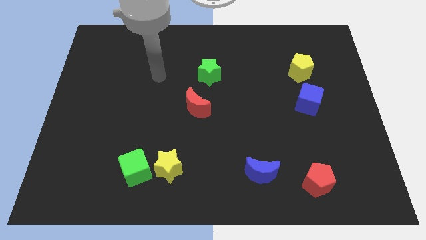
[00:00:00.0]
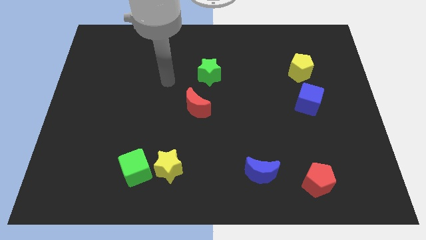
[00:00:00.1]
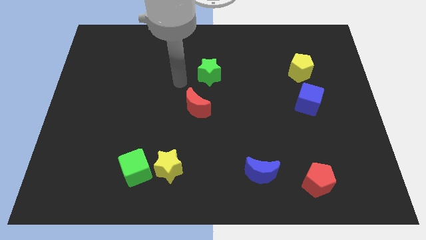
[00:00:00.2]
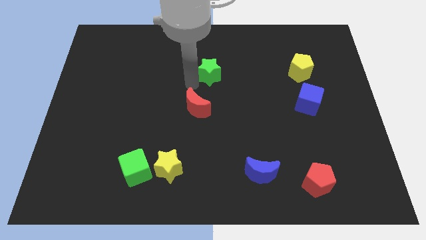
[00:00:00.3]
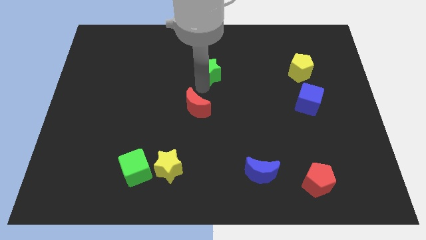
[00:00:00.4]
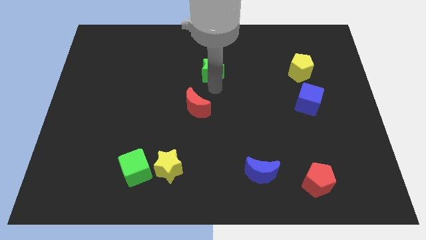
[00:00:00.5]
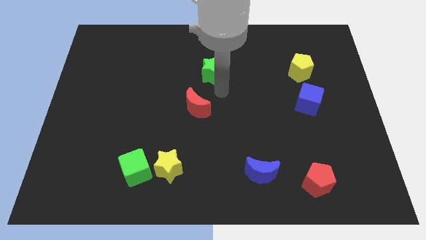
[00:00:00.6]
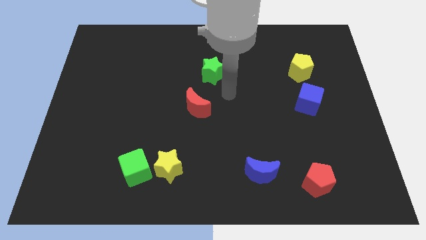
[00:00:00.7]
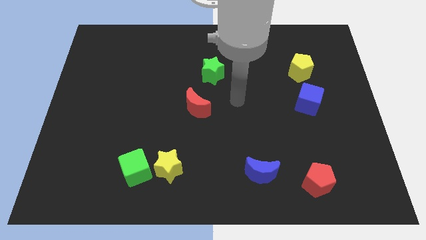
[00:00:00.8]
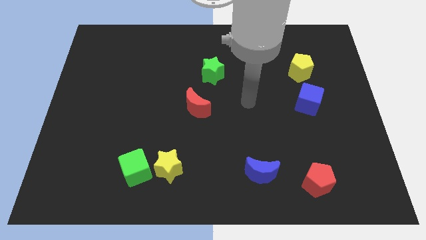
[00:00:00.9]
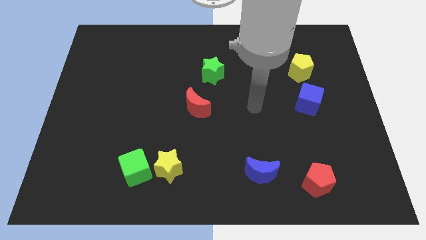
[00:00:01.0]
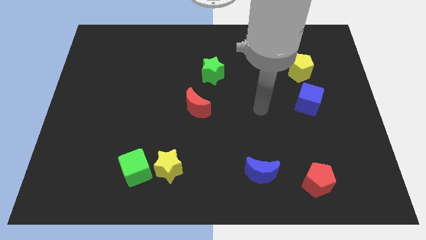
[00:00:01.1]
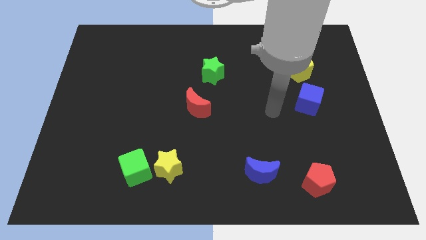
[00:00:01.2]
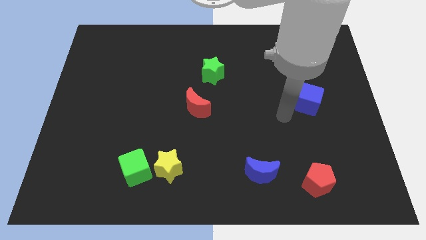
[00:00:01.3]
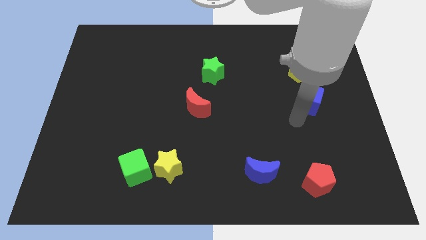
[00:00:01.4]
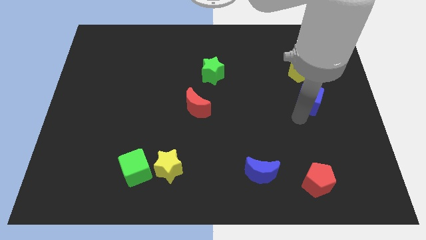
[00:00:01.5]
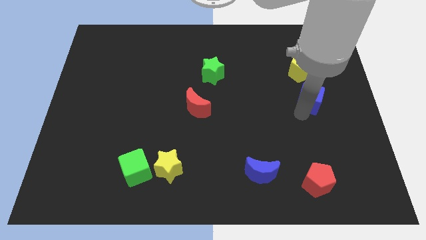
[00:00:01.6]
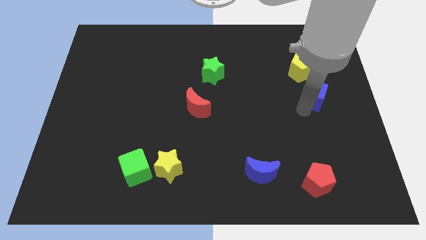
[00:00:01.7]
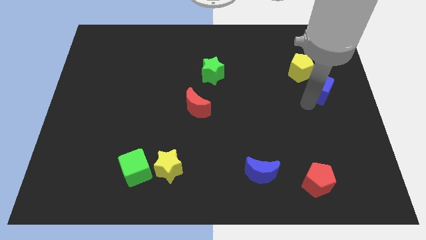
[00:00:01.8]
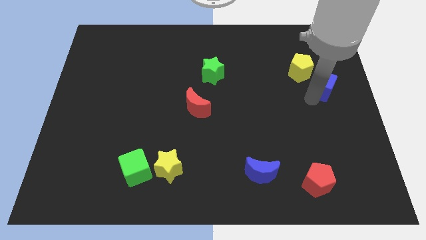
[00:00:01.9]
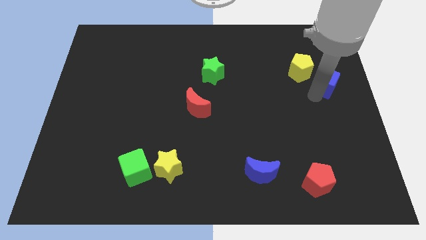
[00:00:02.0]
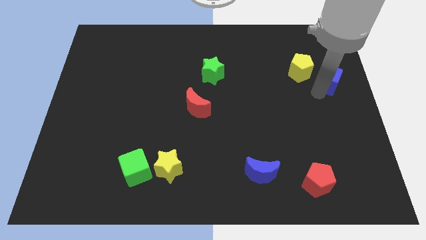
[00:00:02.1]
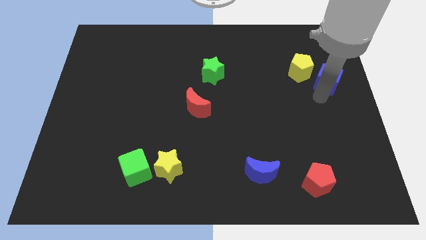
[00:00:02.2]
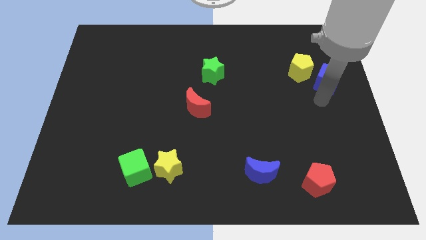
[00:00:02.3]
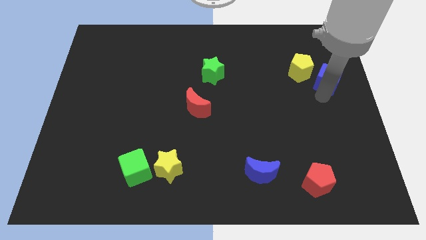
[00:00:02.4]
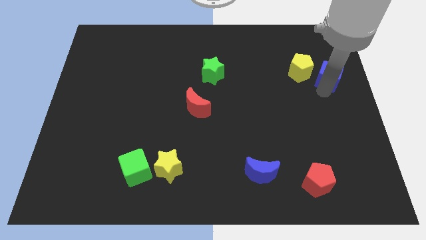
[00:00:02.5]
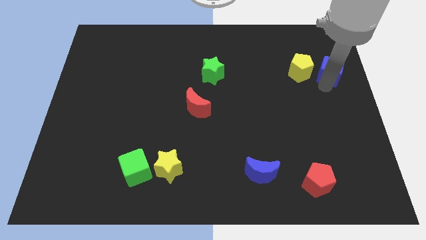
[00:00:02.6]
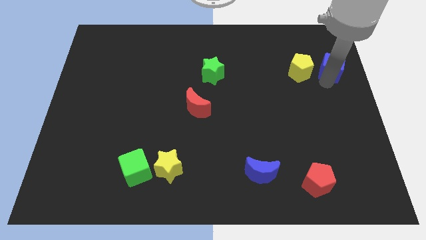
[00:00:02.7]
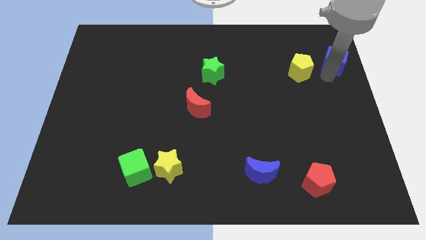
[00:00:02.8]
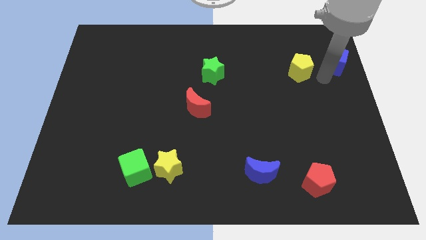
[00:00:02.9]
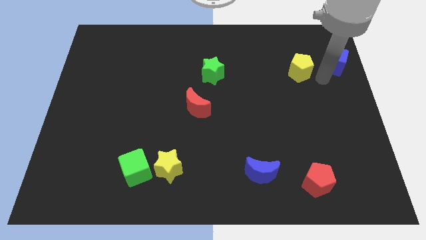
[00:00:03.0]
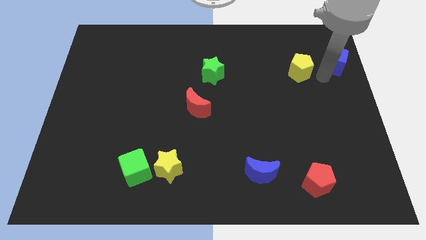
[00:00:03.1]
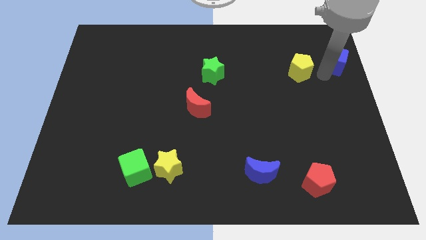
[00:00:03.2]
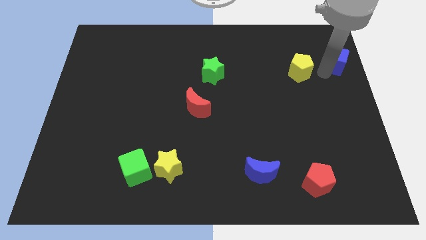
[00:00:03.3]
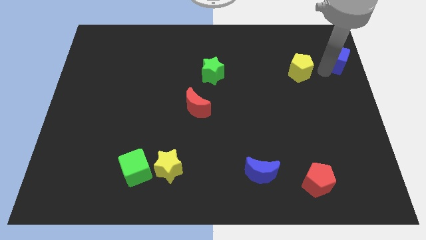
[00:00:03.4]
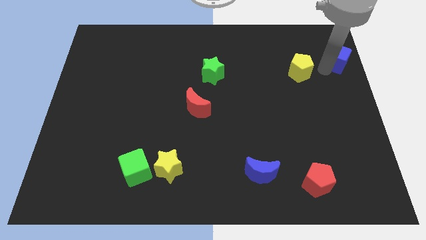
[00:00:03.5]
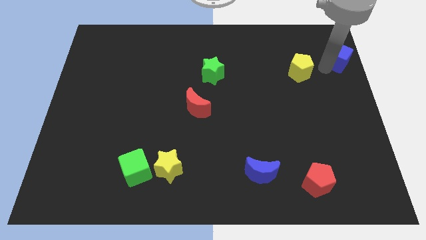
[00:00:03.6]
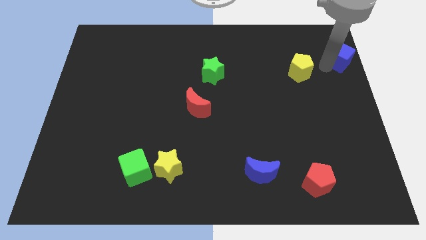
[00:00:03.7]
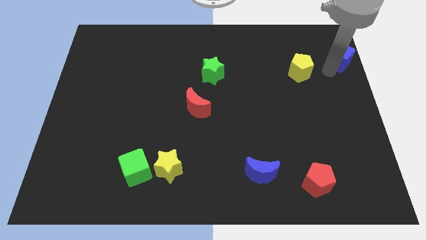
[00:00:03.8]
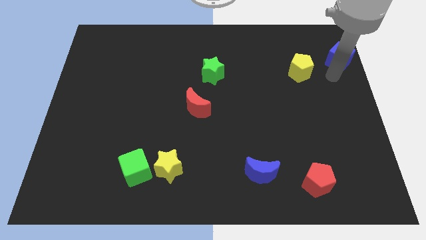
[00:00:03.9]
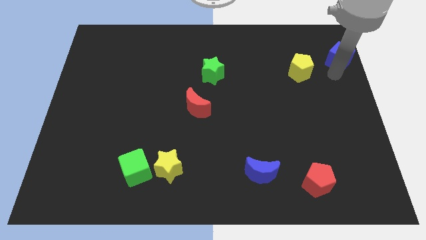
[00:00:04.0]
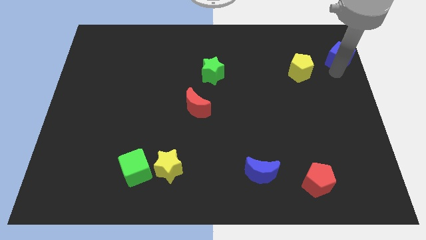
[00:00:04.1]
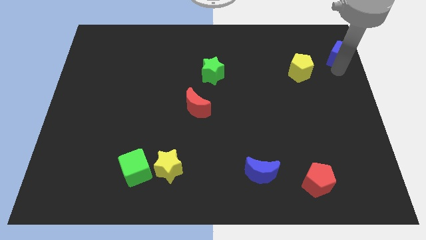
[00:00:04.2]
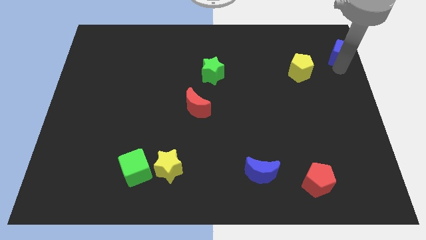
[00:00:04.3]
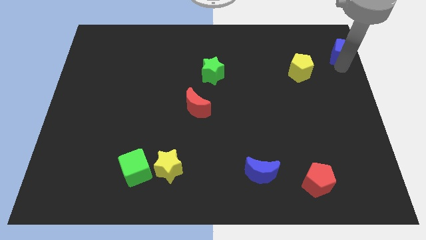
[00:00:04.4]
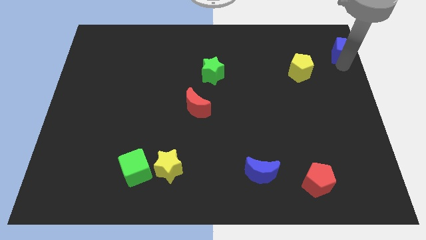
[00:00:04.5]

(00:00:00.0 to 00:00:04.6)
slide the blue cube to the top right corner

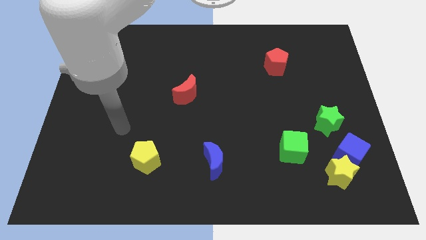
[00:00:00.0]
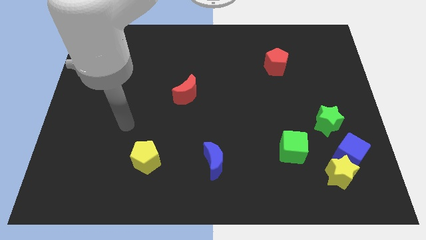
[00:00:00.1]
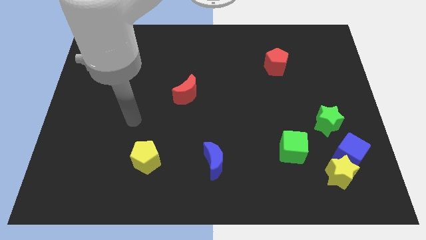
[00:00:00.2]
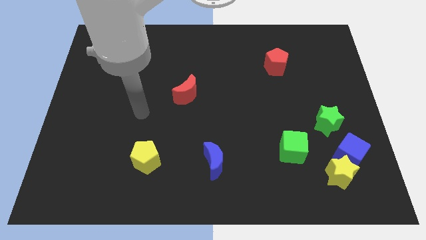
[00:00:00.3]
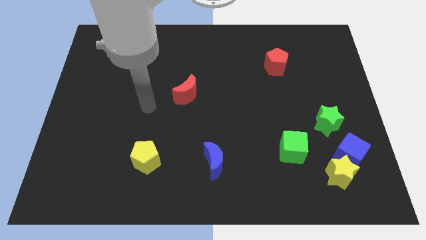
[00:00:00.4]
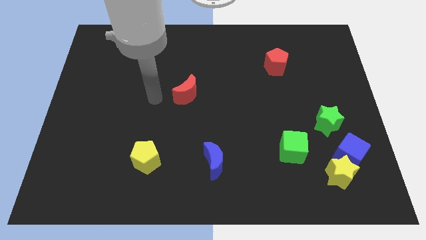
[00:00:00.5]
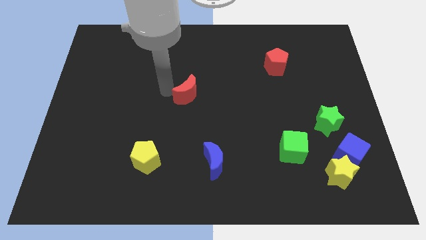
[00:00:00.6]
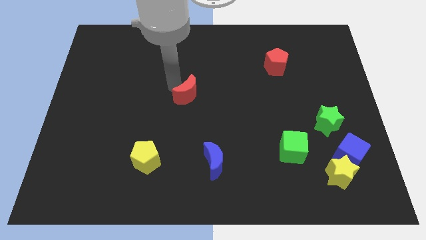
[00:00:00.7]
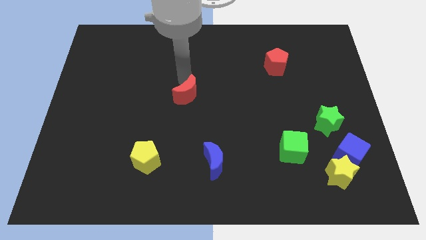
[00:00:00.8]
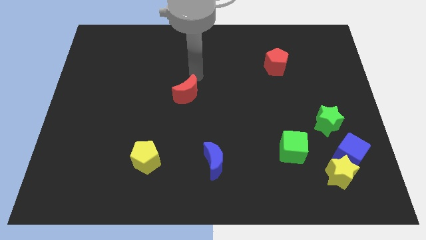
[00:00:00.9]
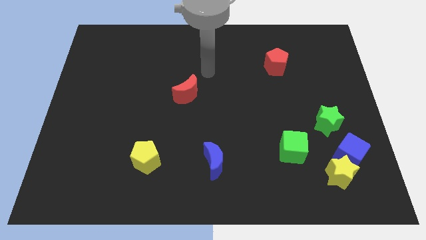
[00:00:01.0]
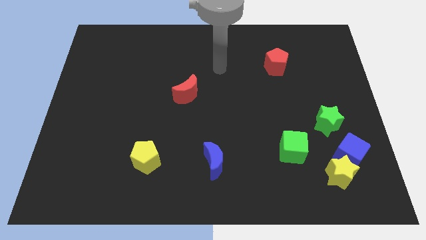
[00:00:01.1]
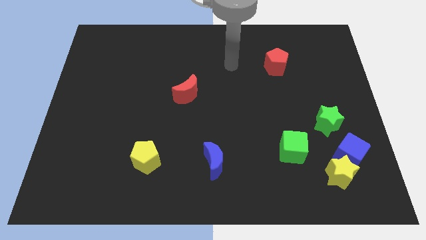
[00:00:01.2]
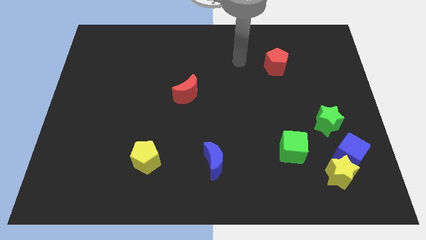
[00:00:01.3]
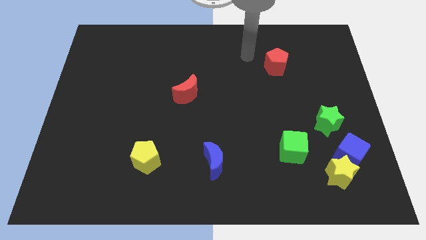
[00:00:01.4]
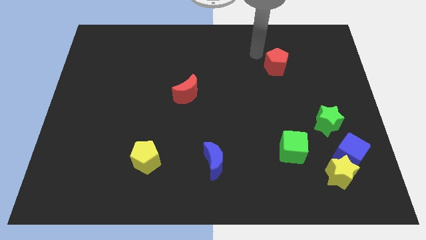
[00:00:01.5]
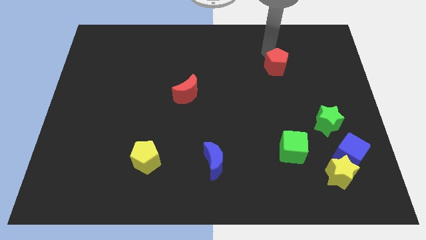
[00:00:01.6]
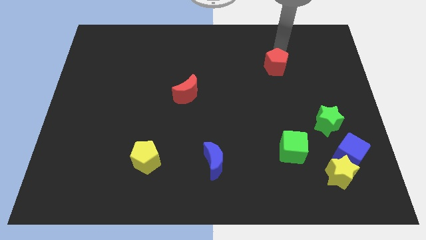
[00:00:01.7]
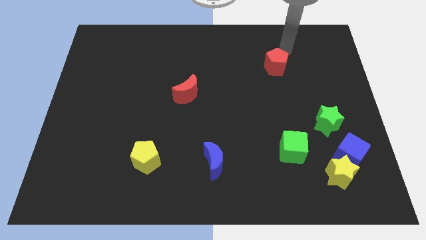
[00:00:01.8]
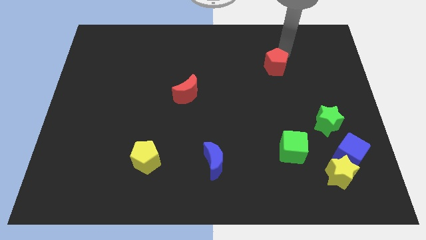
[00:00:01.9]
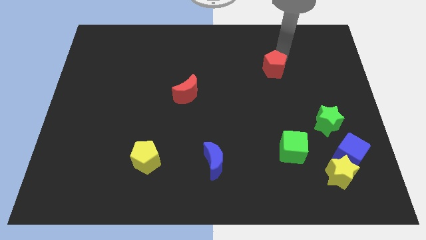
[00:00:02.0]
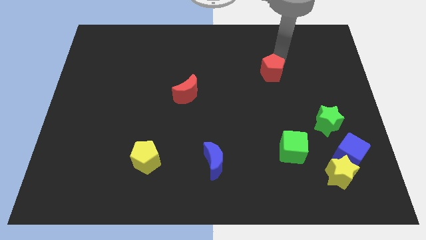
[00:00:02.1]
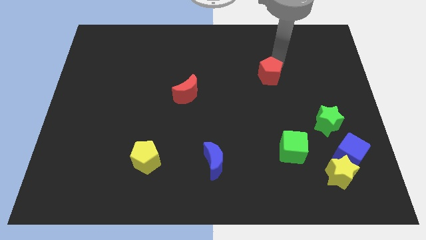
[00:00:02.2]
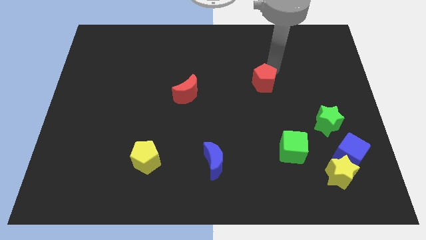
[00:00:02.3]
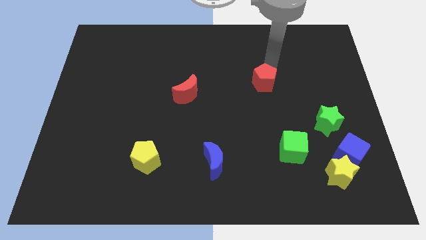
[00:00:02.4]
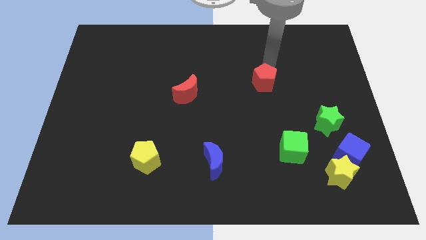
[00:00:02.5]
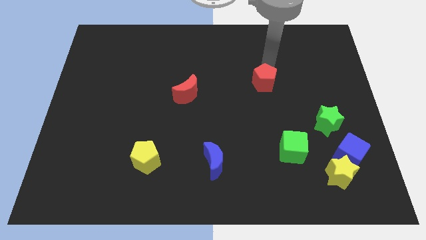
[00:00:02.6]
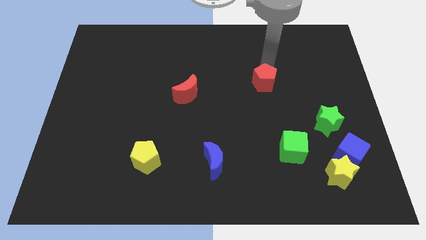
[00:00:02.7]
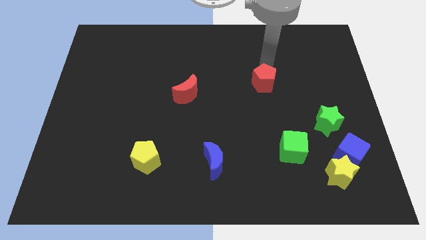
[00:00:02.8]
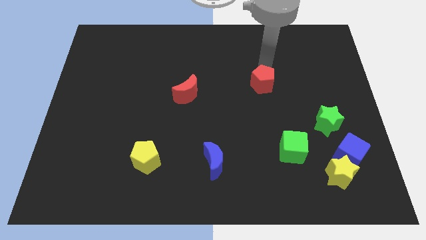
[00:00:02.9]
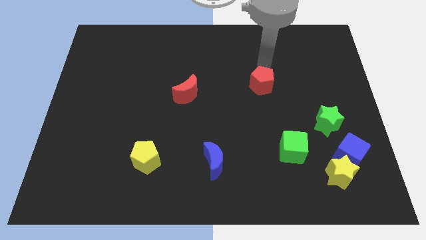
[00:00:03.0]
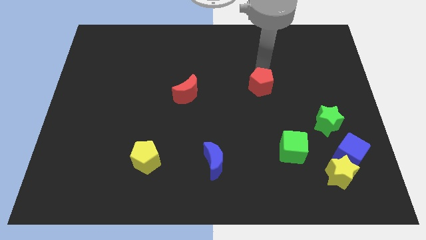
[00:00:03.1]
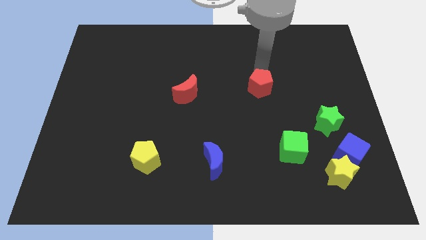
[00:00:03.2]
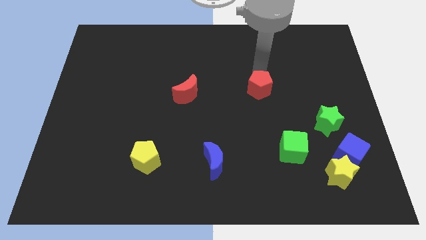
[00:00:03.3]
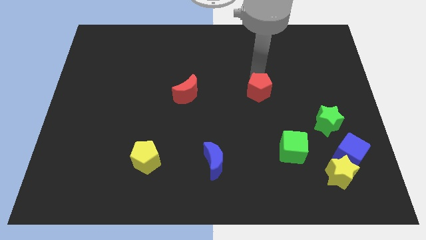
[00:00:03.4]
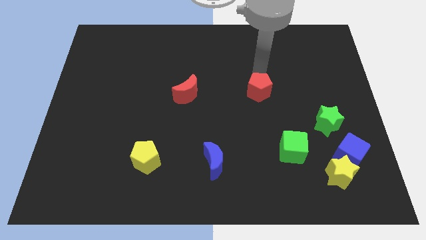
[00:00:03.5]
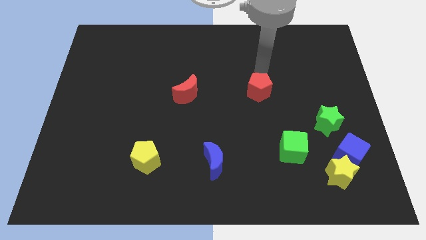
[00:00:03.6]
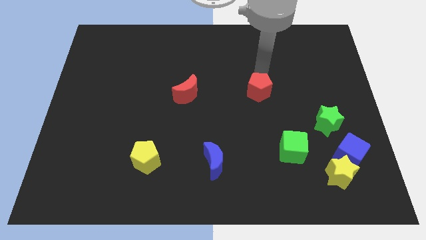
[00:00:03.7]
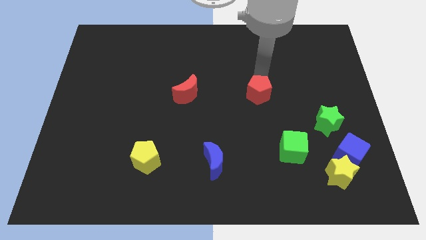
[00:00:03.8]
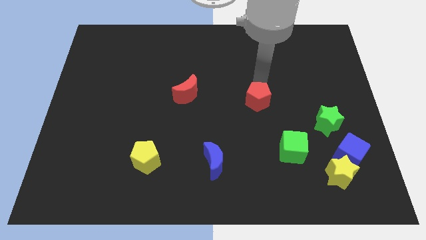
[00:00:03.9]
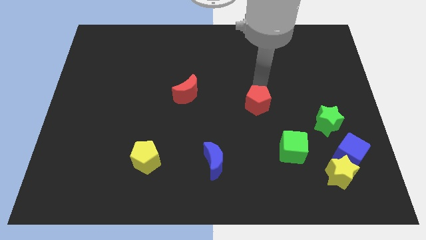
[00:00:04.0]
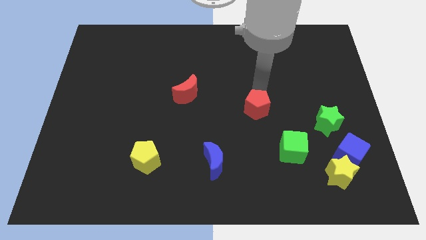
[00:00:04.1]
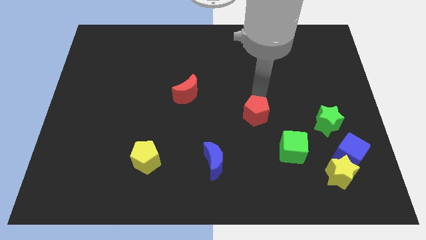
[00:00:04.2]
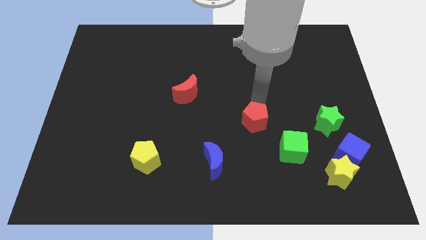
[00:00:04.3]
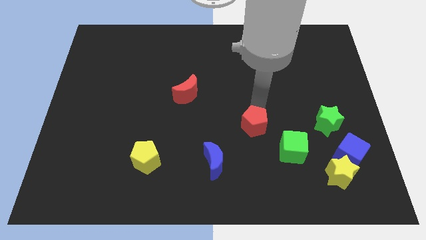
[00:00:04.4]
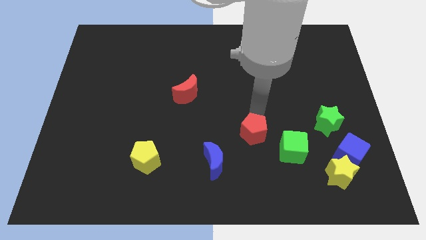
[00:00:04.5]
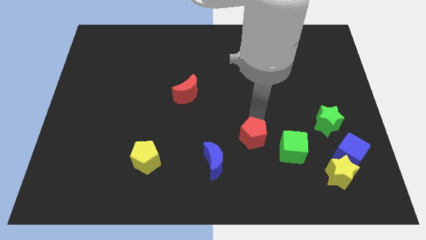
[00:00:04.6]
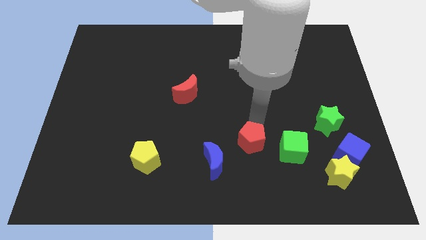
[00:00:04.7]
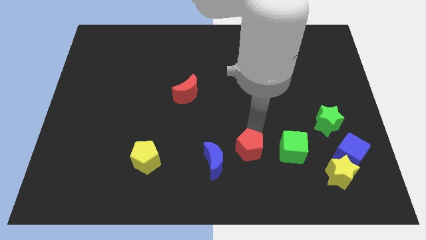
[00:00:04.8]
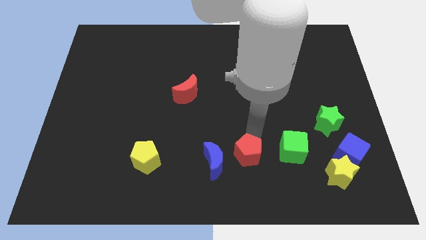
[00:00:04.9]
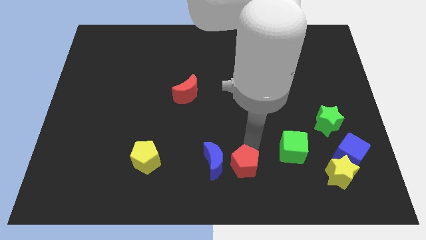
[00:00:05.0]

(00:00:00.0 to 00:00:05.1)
slide the red pentagon to the bottom
